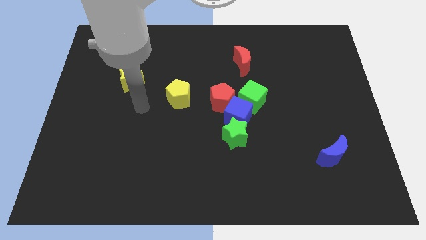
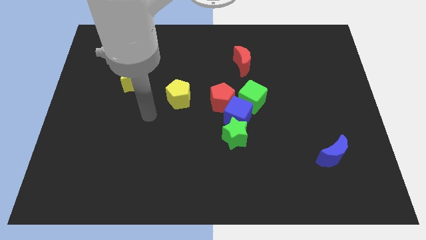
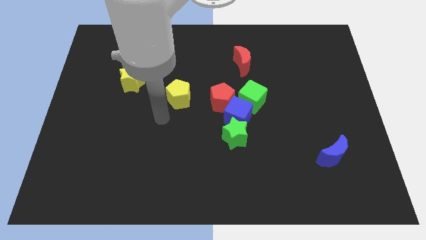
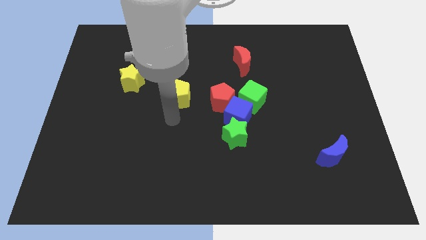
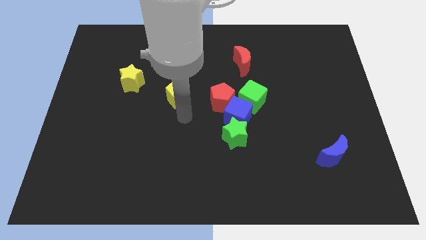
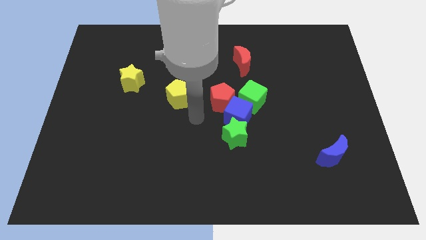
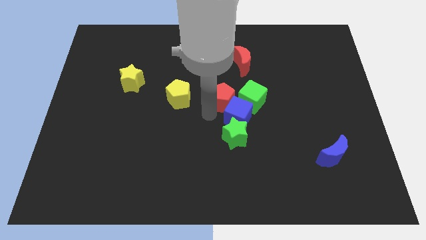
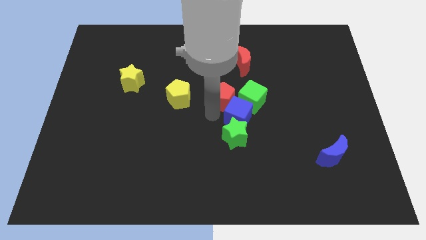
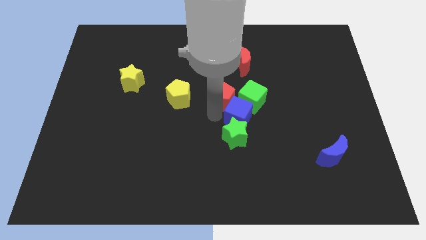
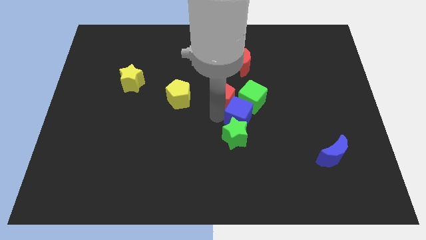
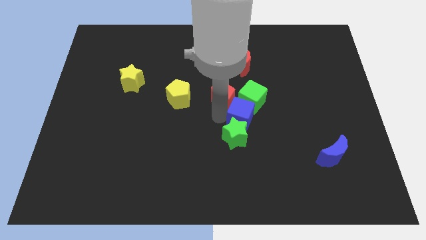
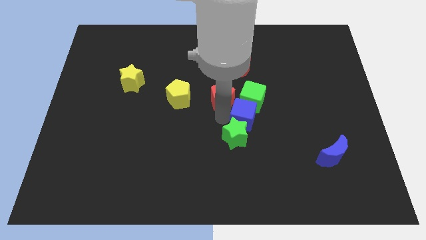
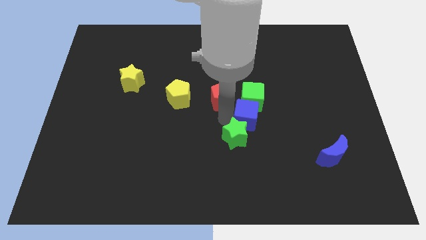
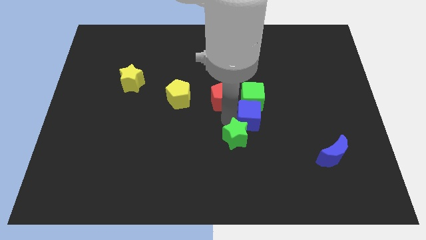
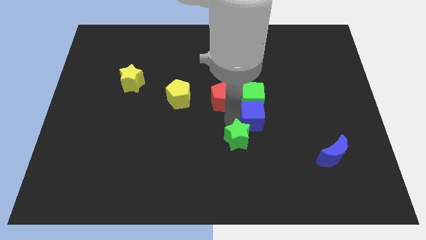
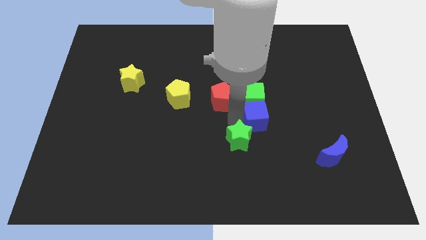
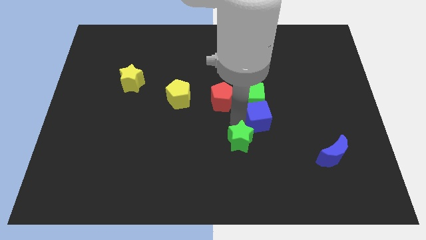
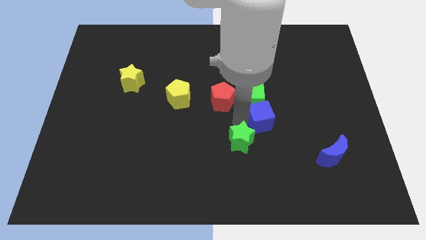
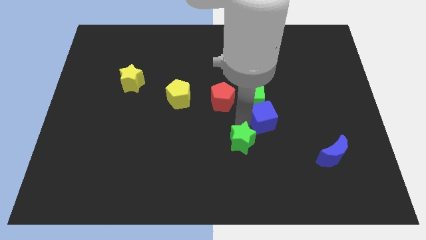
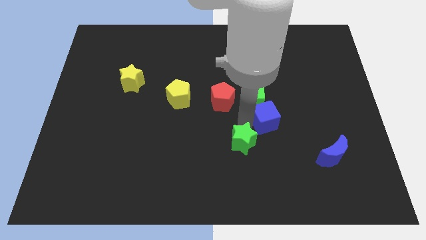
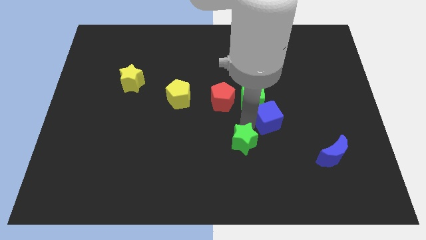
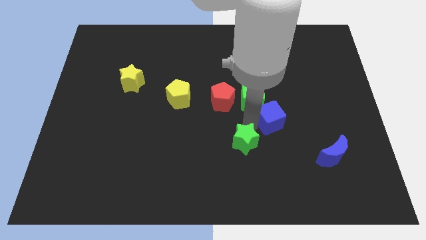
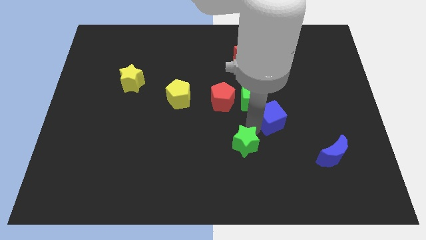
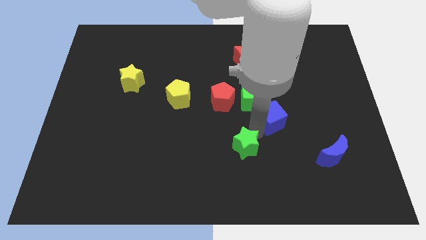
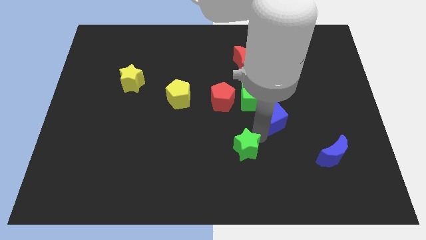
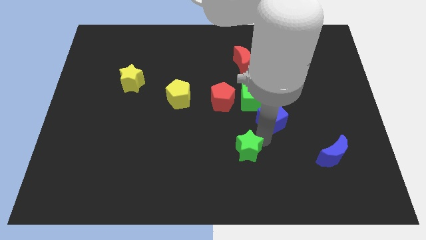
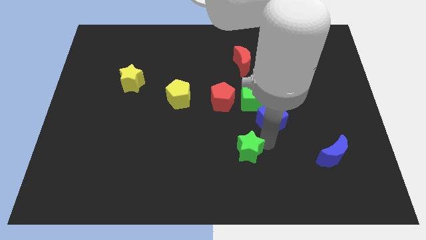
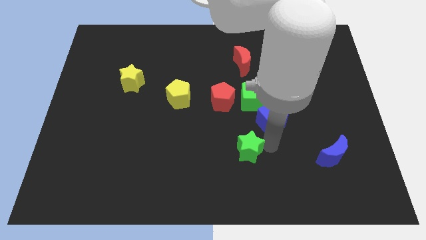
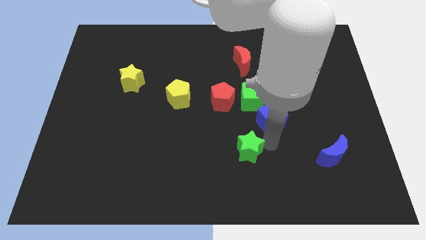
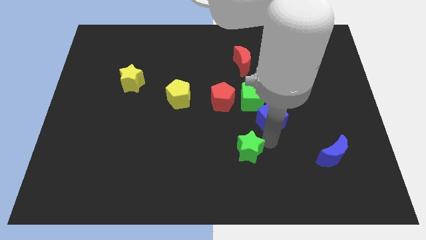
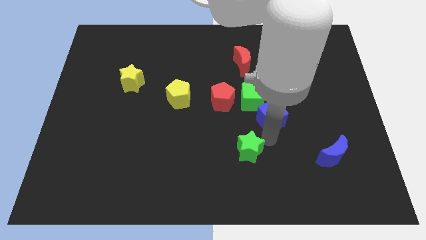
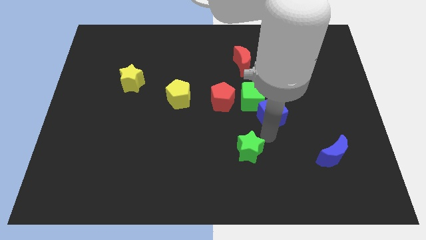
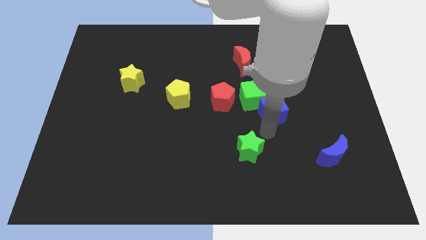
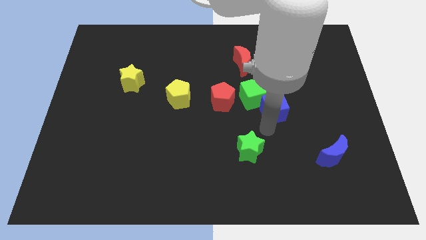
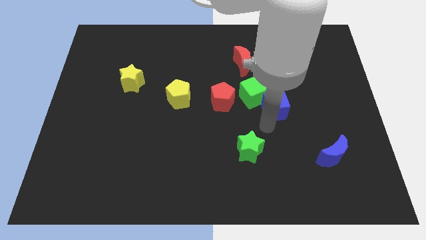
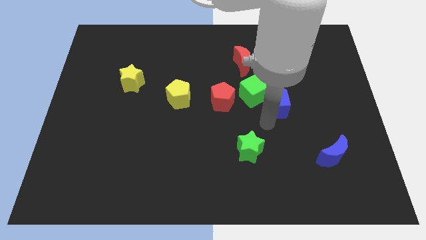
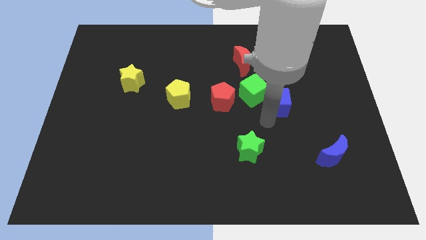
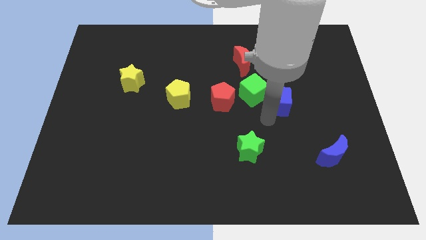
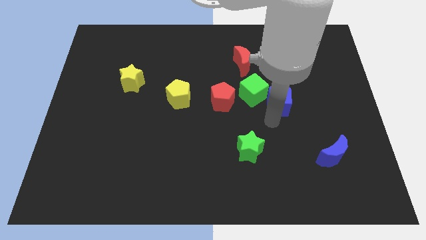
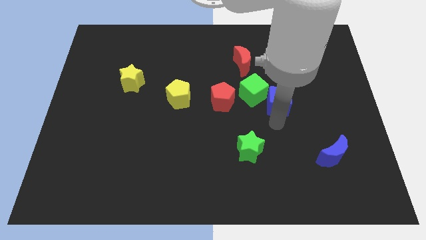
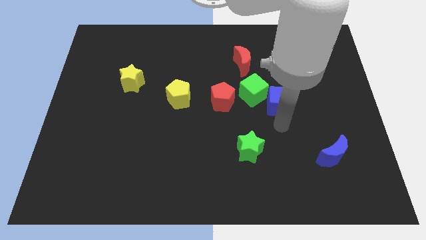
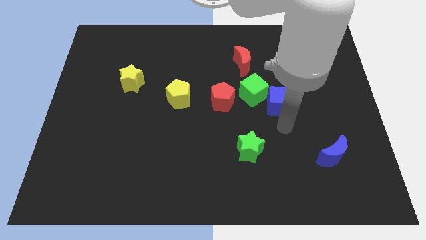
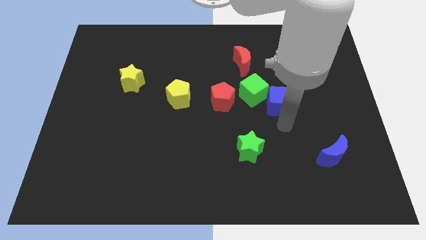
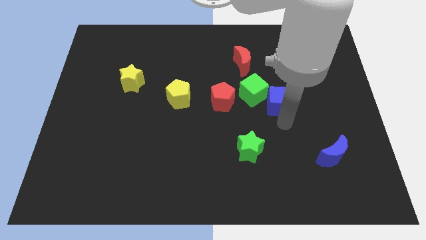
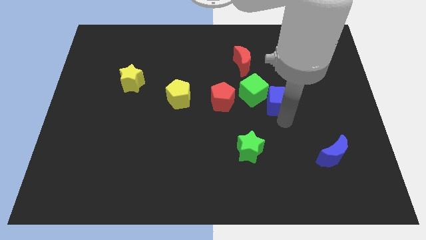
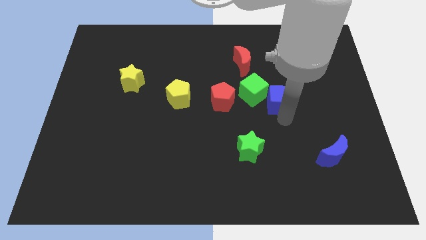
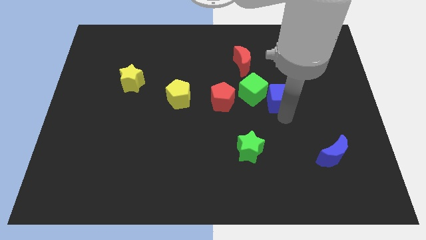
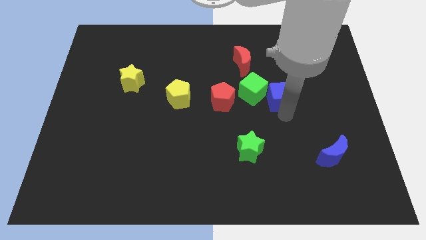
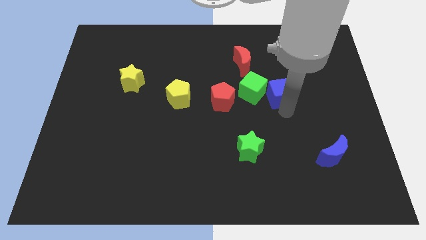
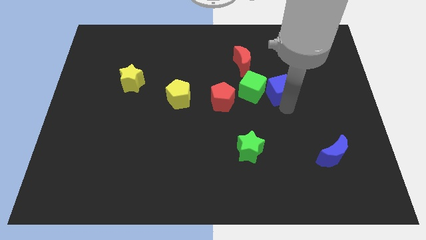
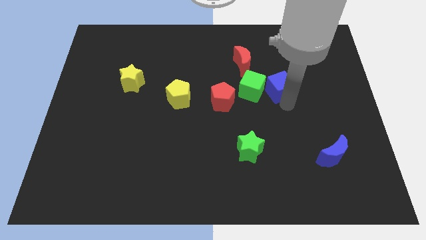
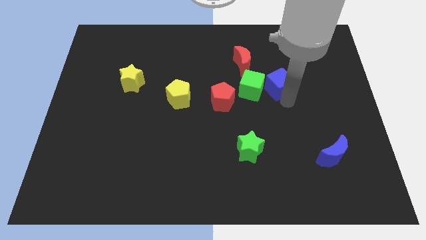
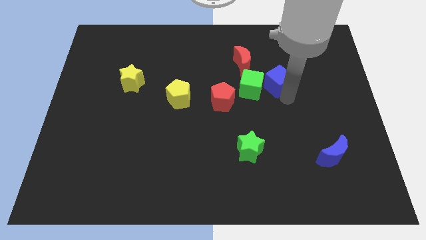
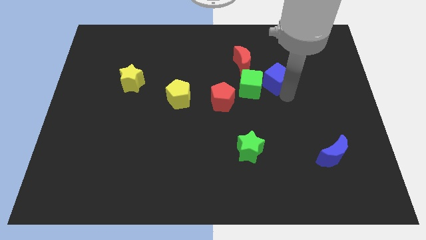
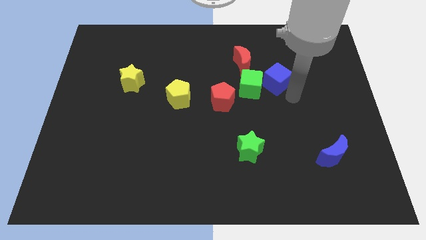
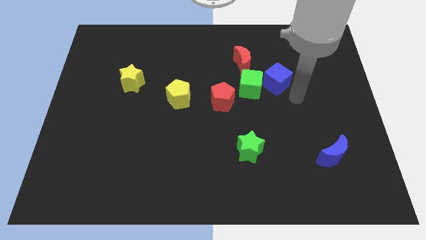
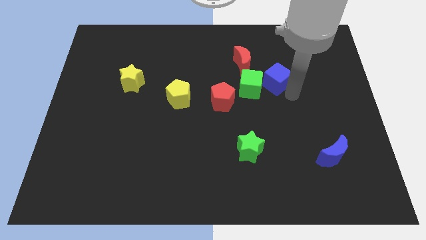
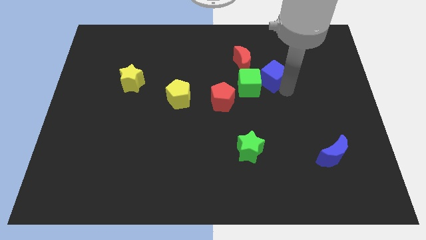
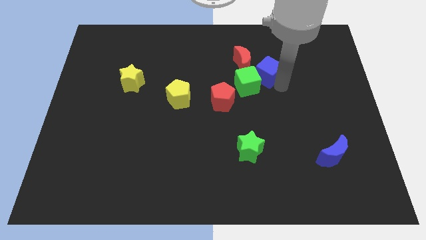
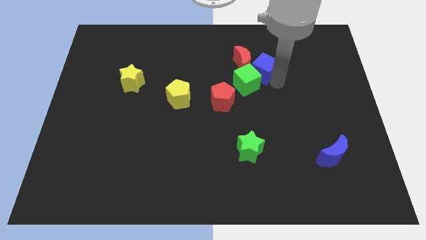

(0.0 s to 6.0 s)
push the blue cube to the red moon
